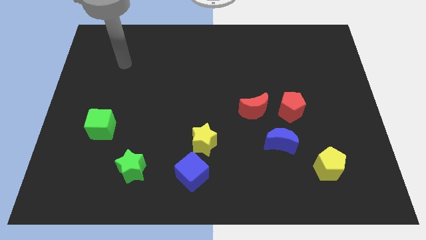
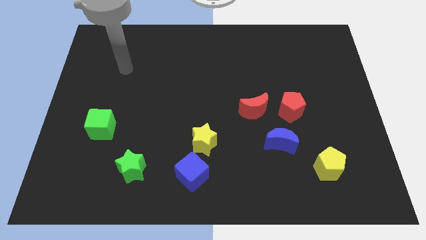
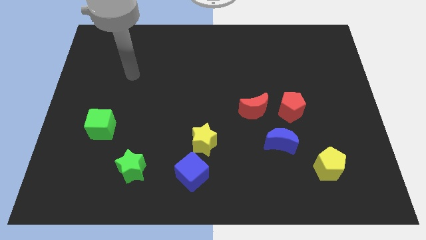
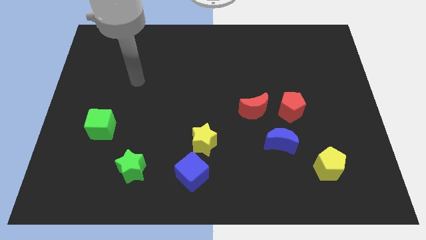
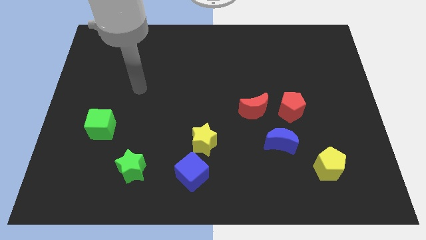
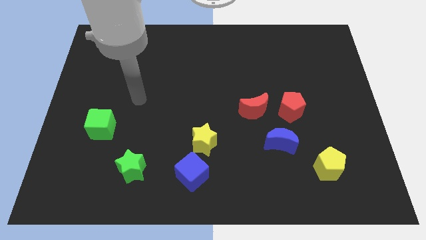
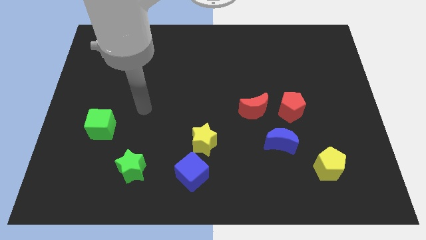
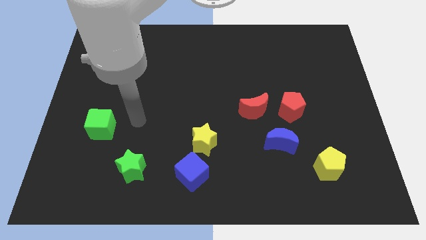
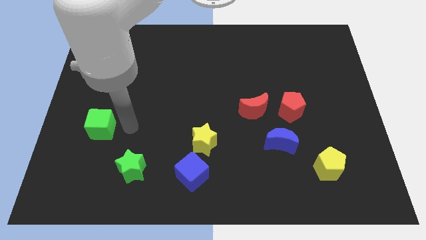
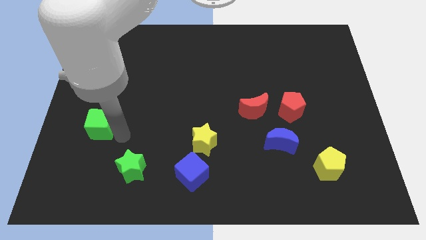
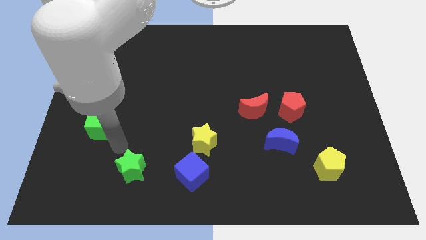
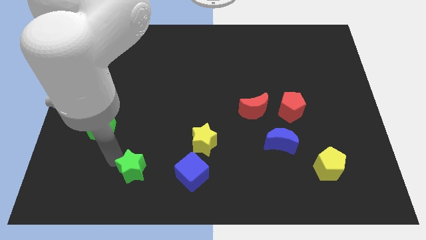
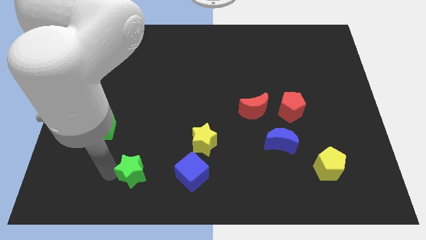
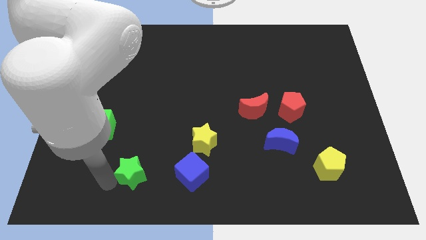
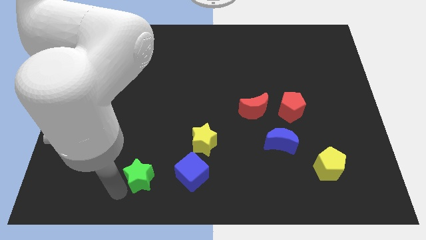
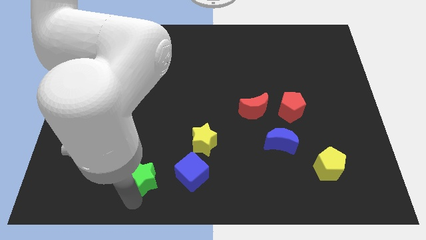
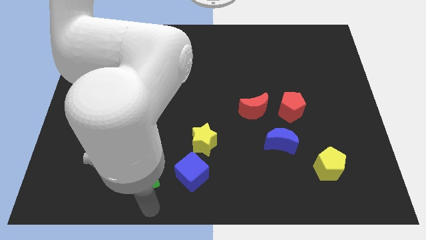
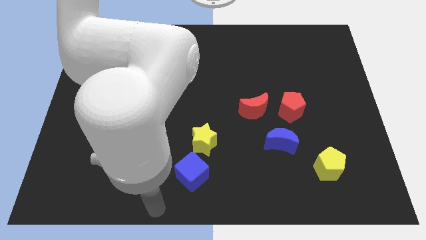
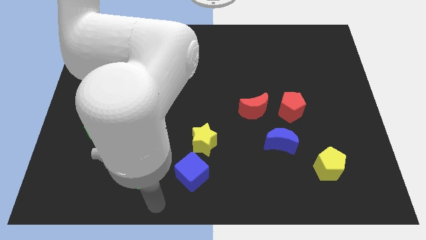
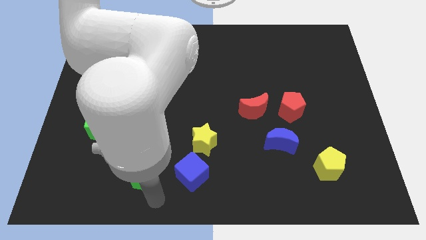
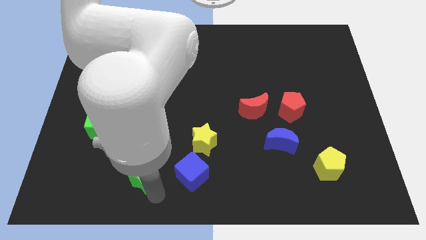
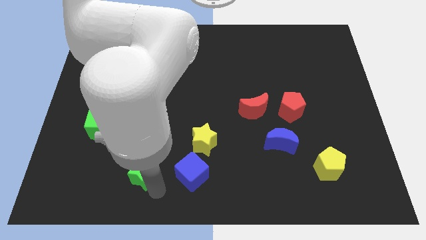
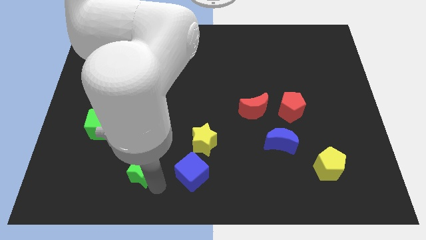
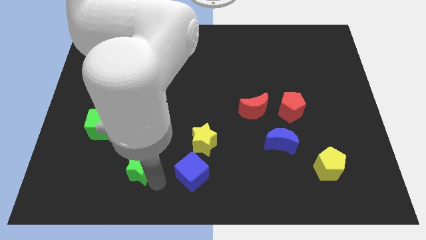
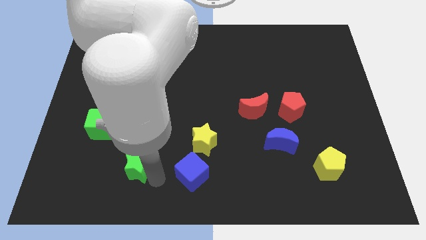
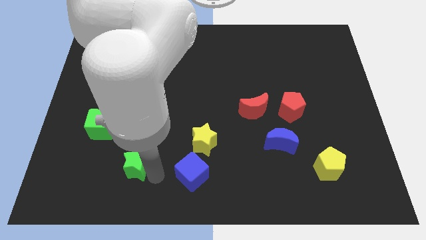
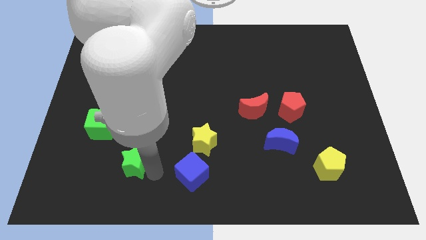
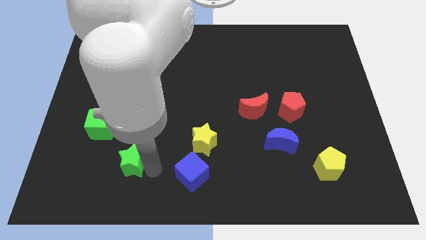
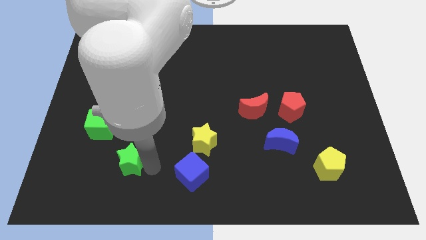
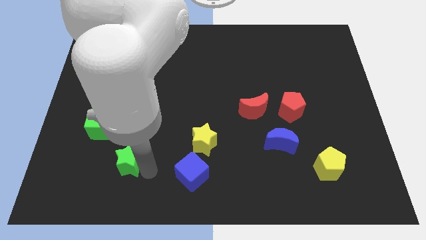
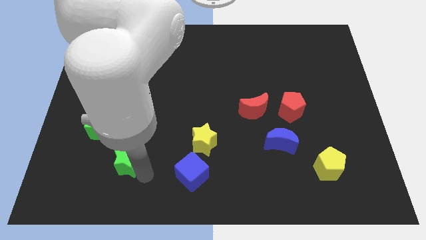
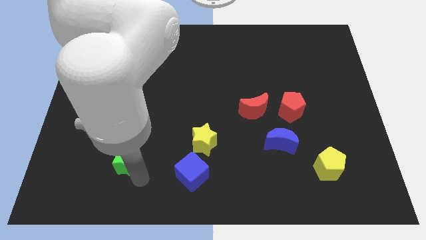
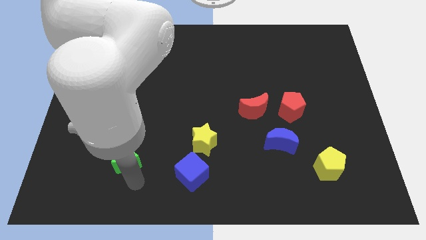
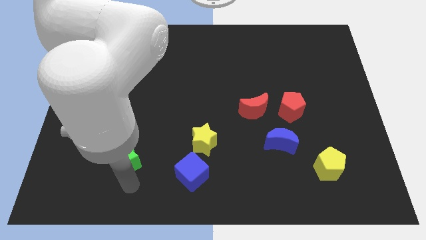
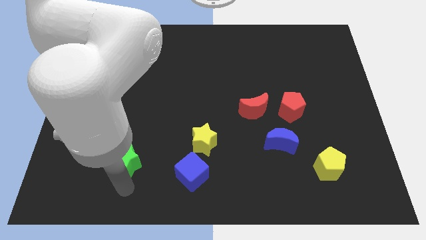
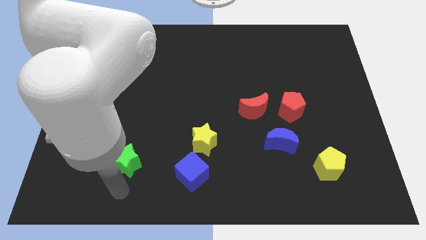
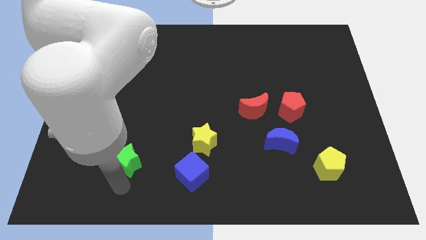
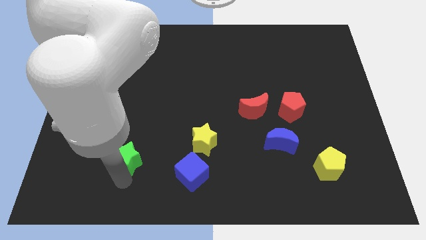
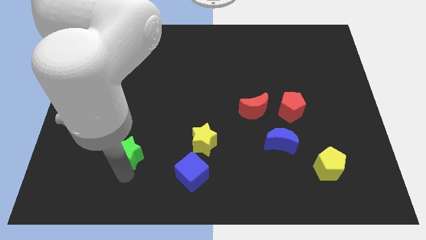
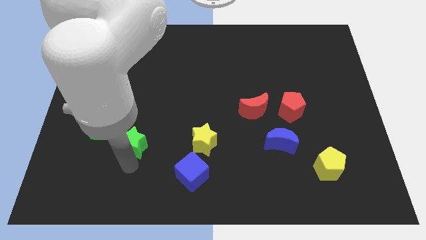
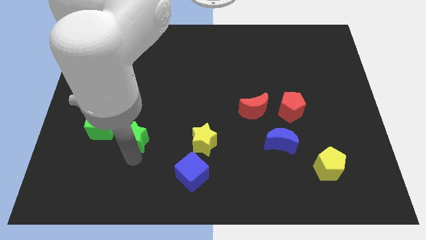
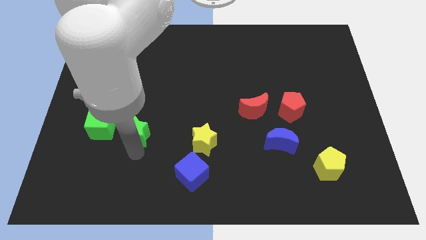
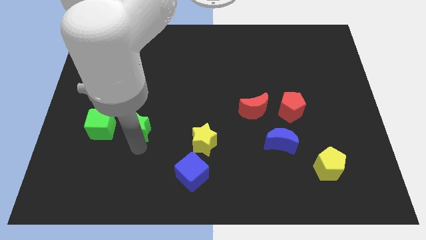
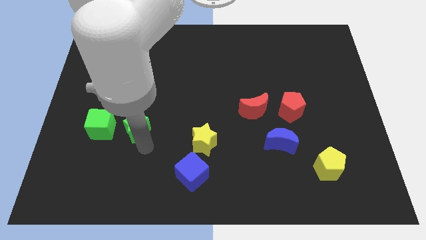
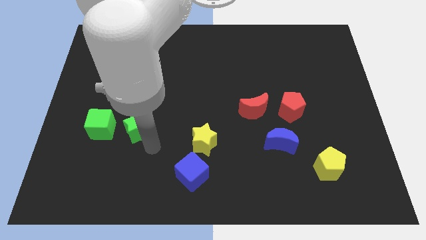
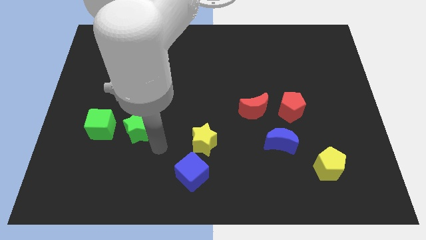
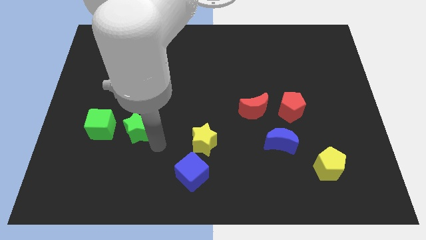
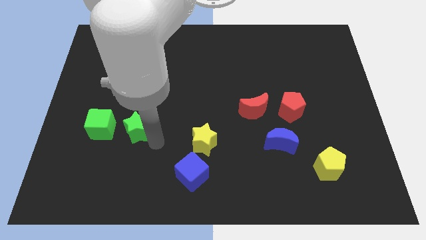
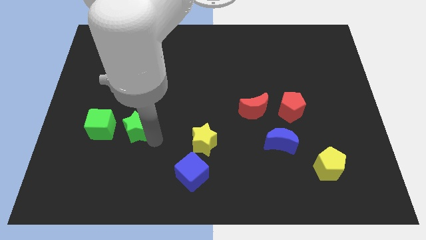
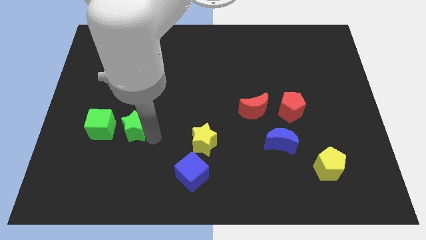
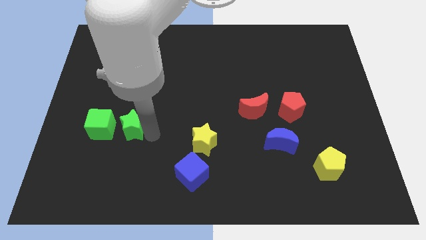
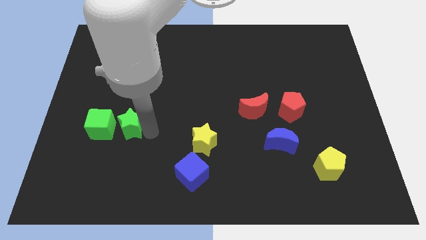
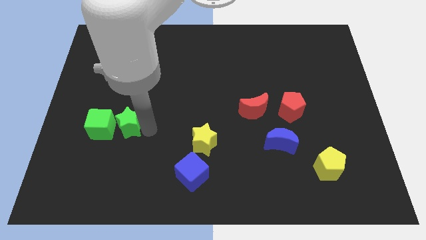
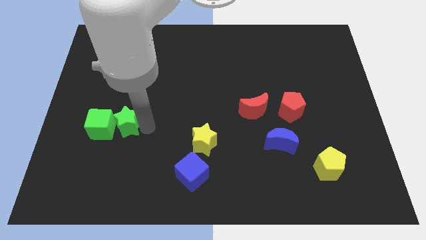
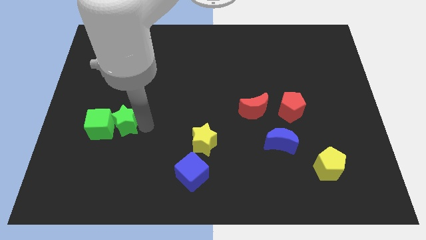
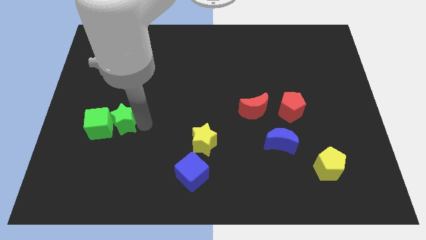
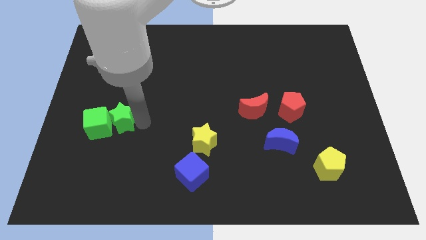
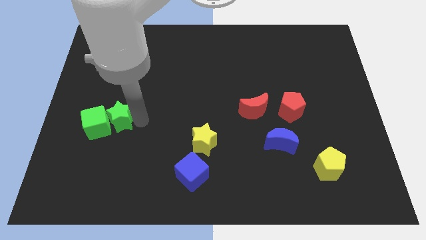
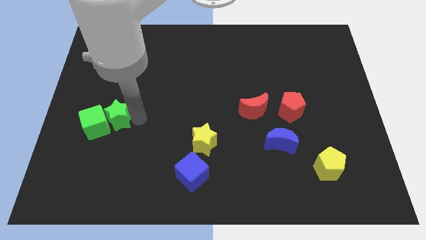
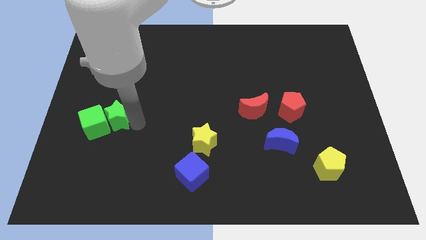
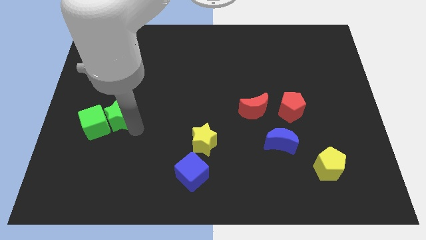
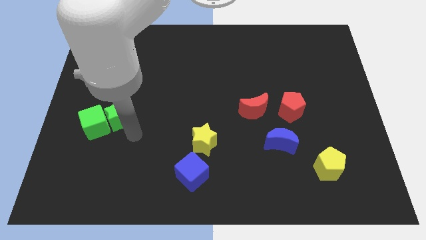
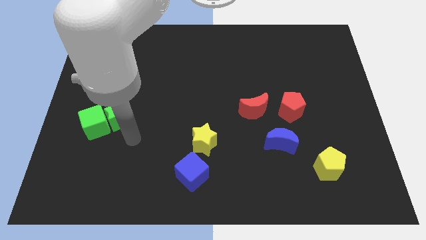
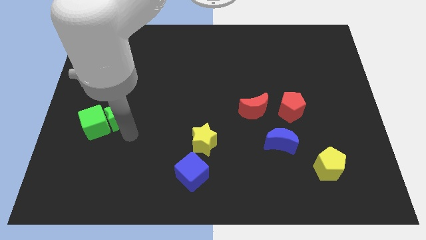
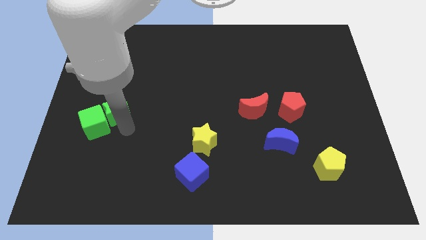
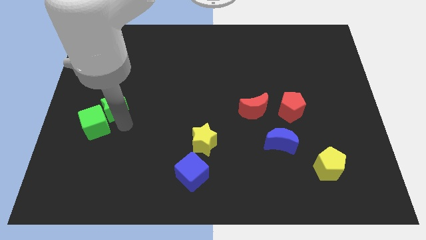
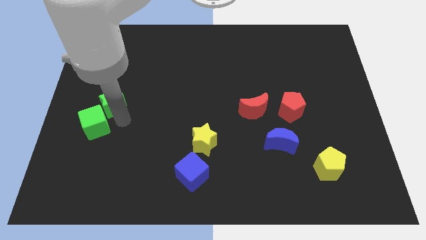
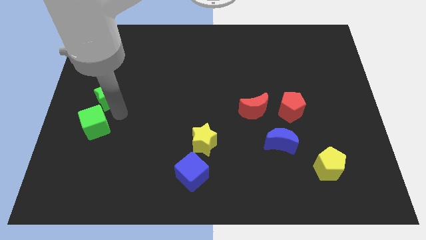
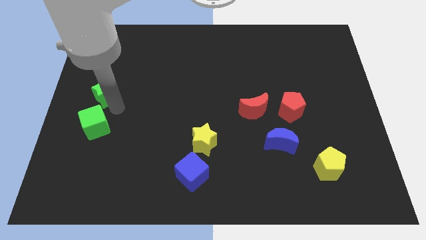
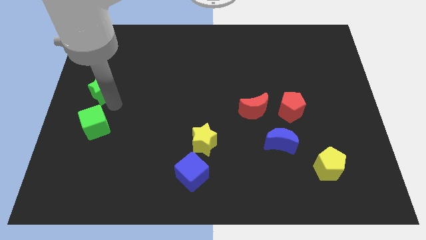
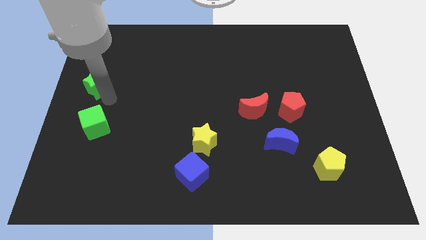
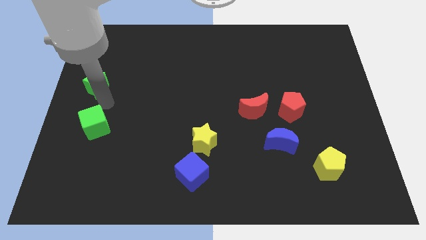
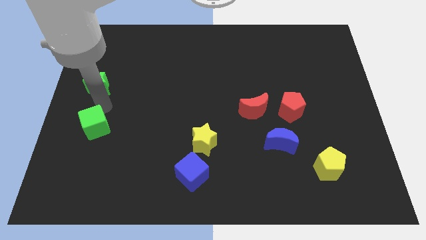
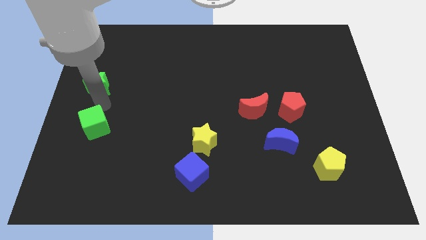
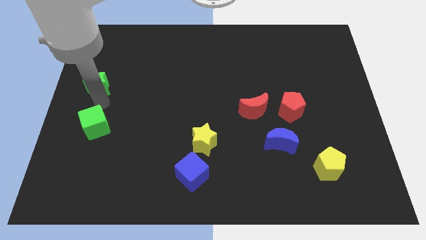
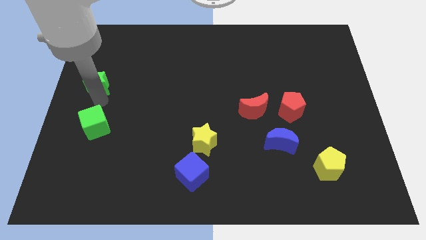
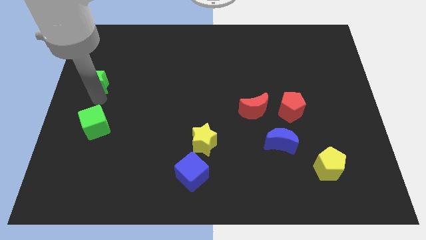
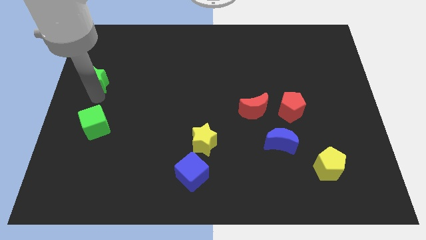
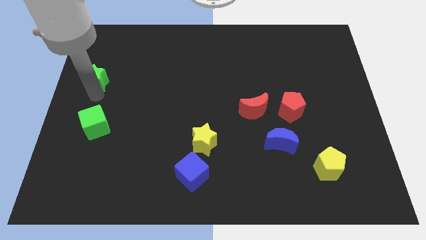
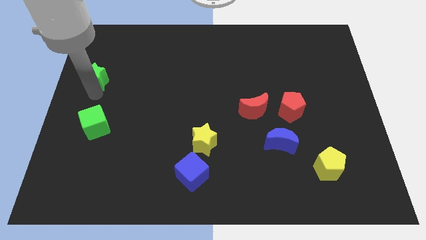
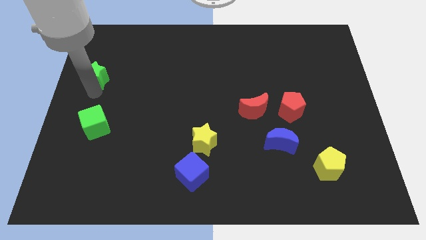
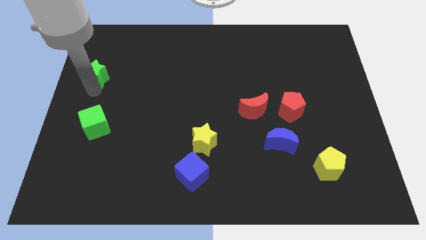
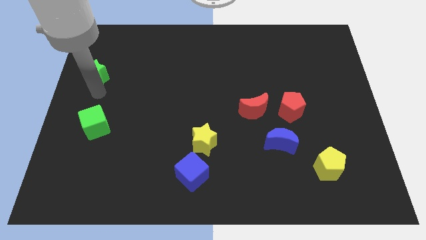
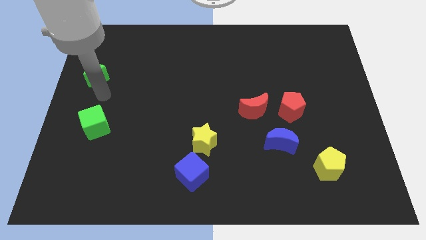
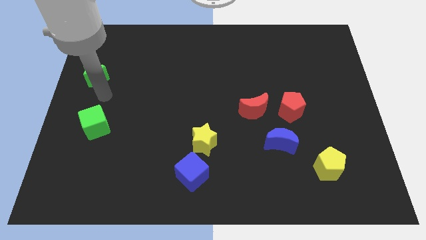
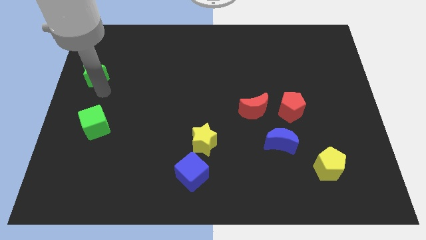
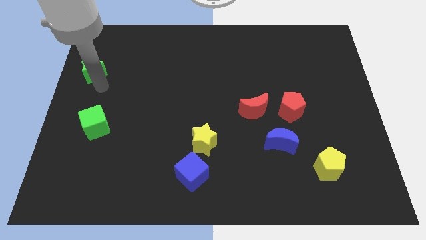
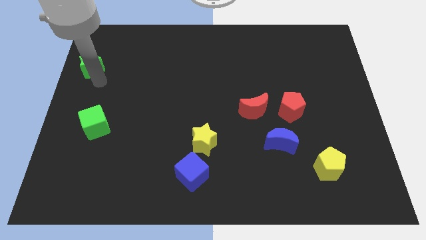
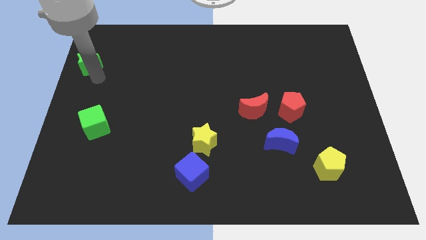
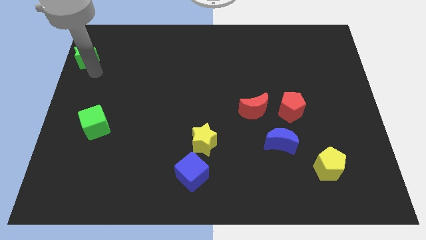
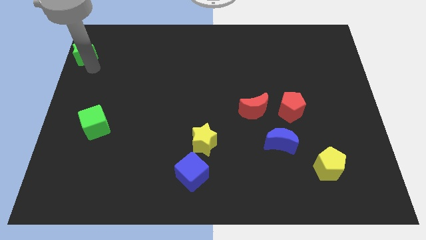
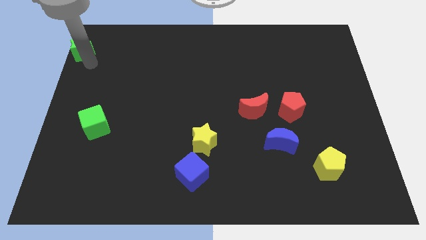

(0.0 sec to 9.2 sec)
push the green star to the top left
